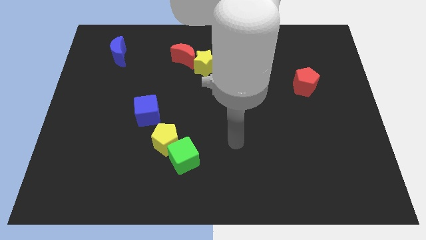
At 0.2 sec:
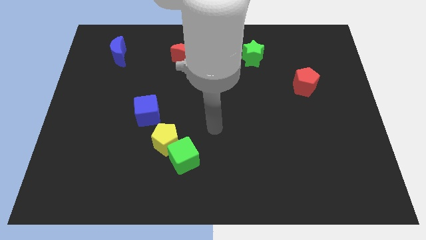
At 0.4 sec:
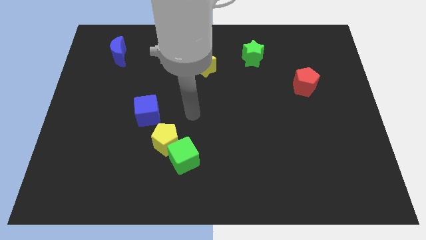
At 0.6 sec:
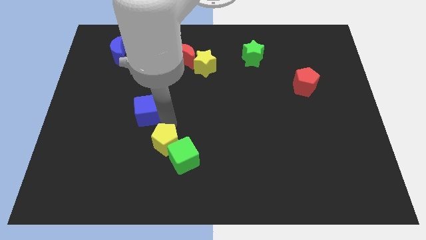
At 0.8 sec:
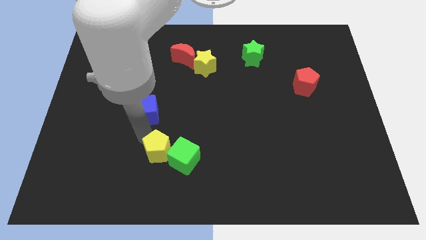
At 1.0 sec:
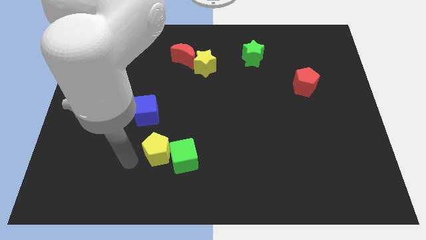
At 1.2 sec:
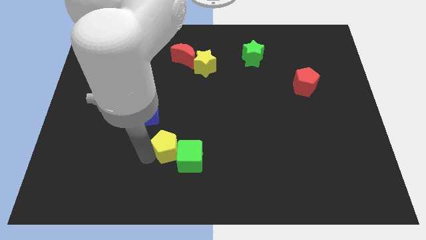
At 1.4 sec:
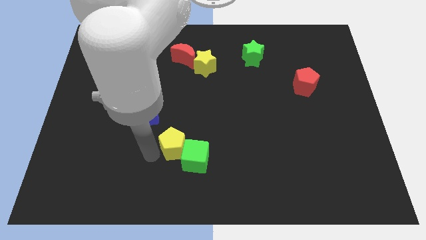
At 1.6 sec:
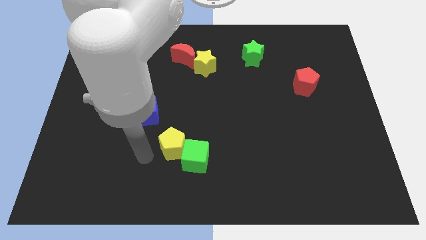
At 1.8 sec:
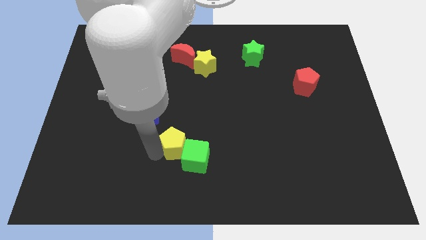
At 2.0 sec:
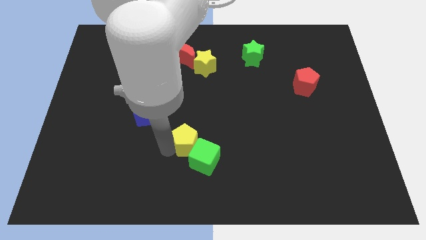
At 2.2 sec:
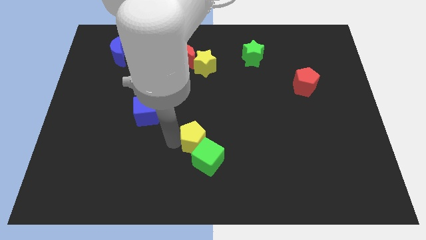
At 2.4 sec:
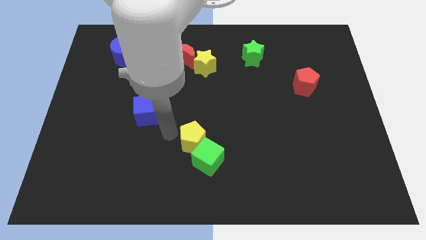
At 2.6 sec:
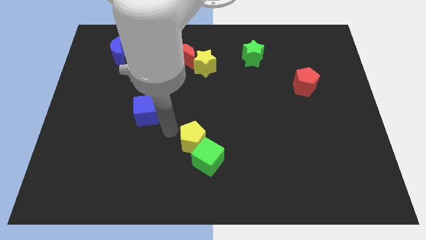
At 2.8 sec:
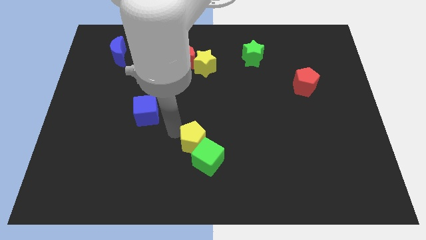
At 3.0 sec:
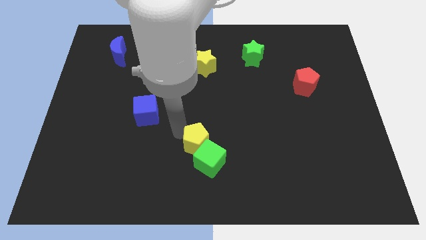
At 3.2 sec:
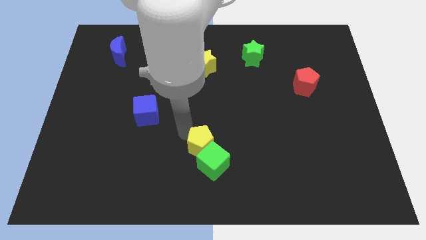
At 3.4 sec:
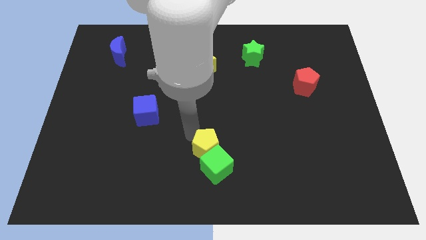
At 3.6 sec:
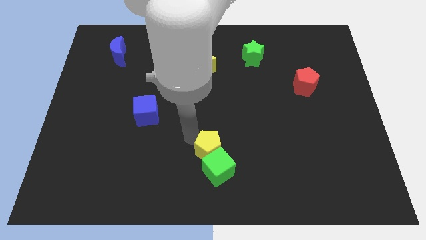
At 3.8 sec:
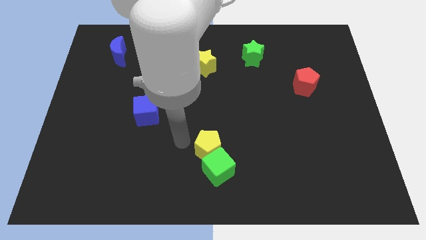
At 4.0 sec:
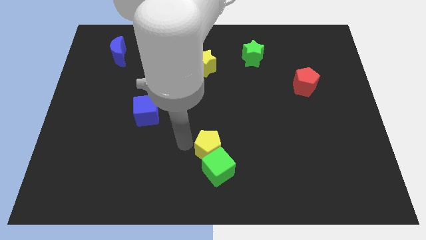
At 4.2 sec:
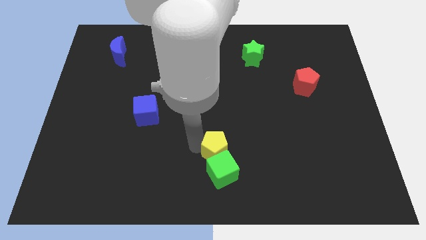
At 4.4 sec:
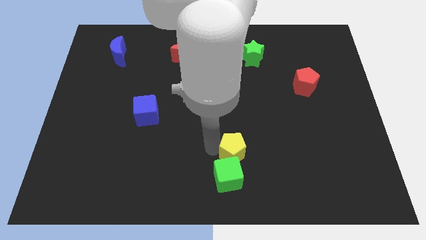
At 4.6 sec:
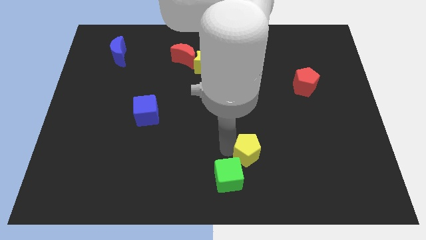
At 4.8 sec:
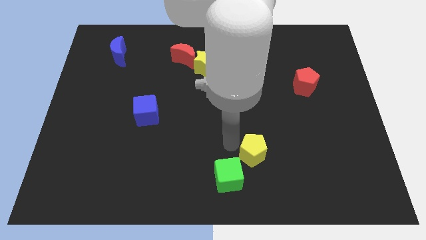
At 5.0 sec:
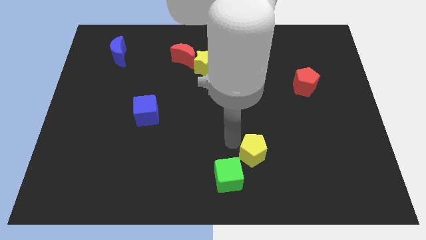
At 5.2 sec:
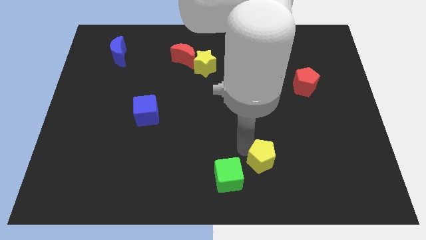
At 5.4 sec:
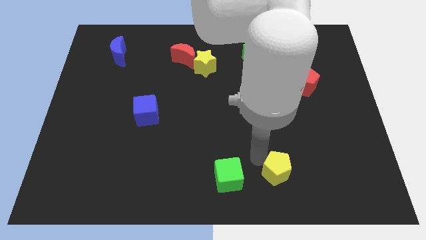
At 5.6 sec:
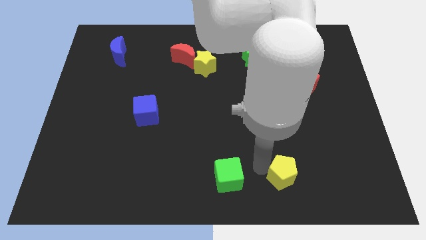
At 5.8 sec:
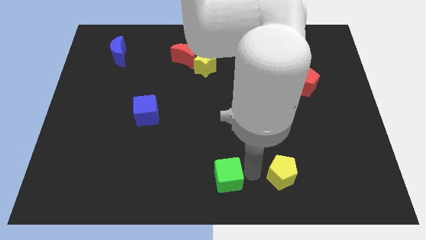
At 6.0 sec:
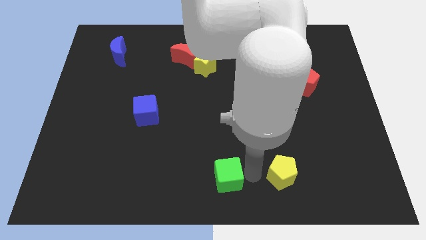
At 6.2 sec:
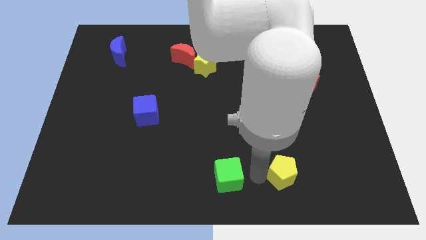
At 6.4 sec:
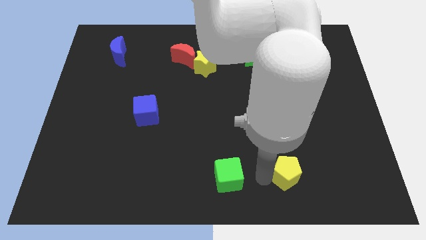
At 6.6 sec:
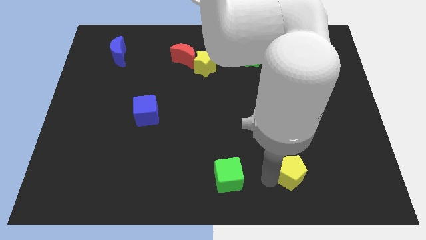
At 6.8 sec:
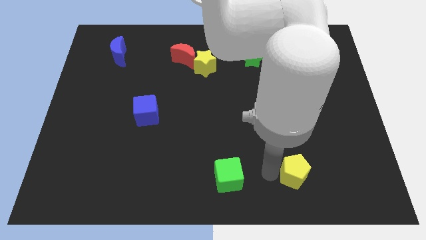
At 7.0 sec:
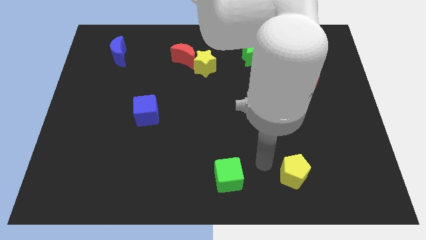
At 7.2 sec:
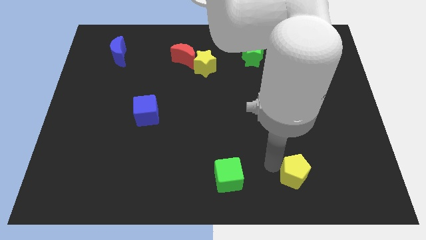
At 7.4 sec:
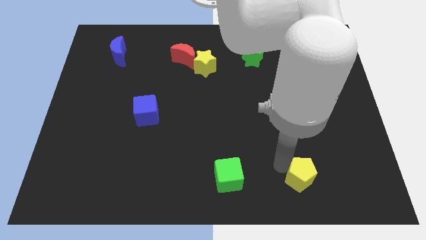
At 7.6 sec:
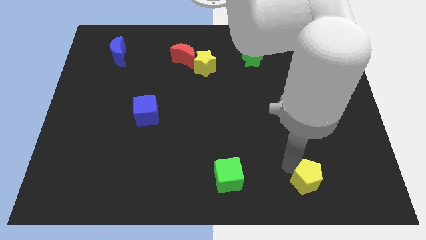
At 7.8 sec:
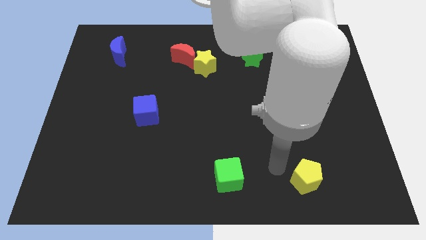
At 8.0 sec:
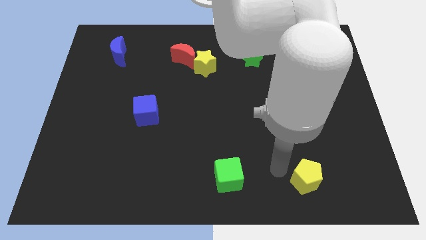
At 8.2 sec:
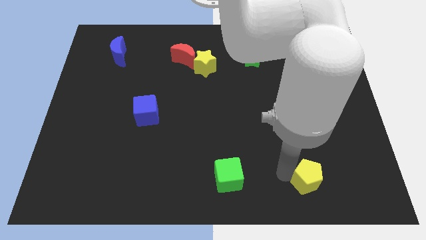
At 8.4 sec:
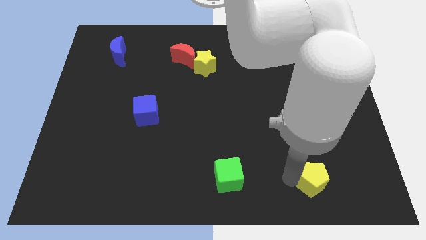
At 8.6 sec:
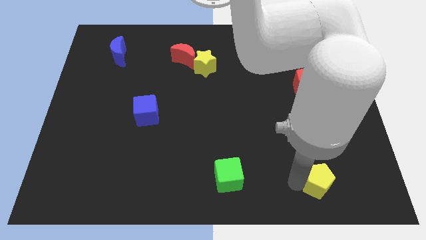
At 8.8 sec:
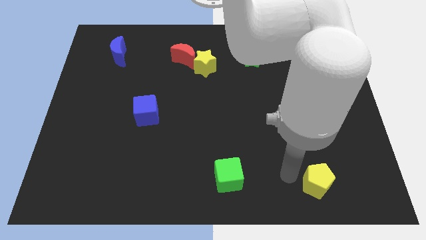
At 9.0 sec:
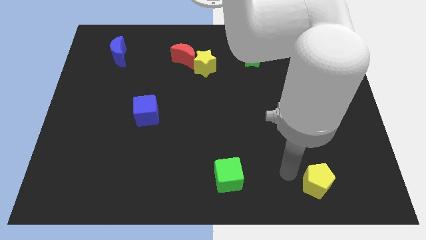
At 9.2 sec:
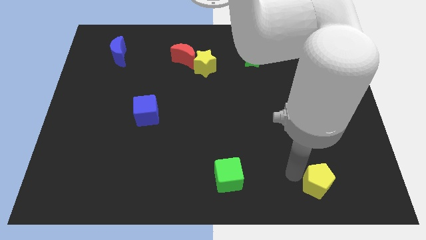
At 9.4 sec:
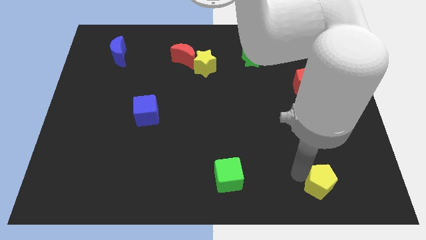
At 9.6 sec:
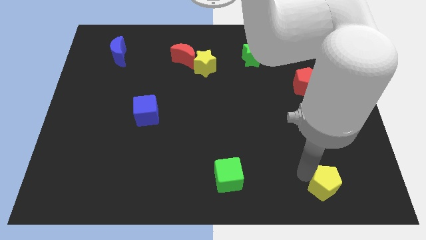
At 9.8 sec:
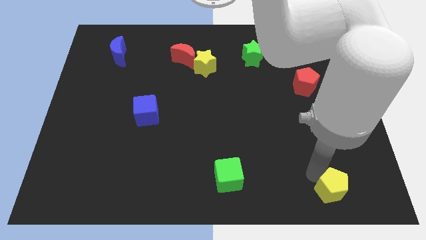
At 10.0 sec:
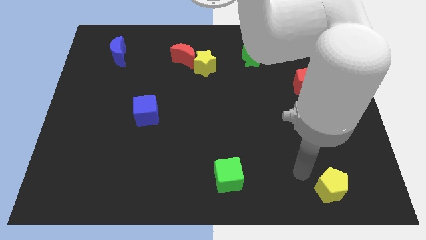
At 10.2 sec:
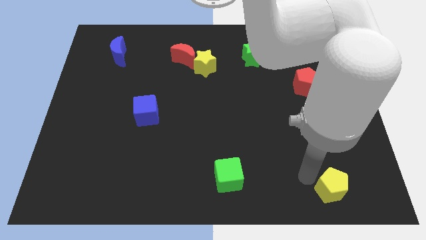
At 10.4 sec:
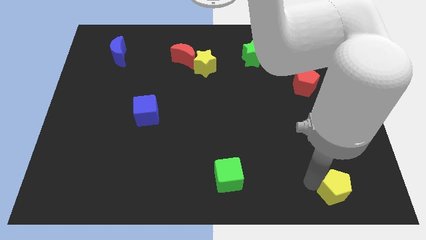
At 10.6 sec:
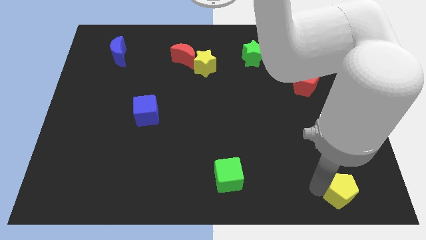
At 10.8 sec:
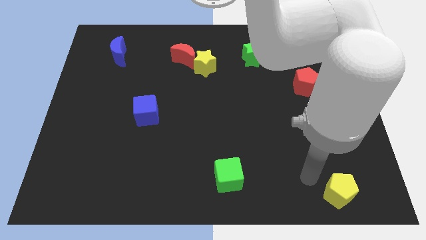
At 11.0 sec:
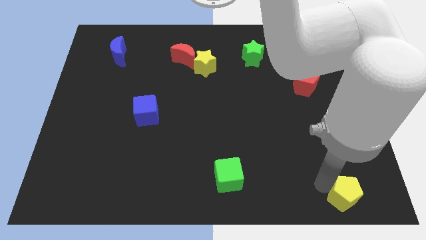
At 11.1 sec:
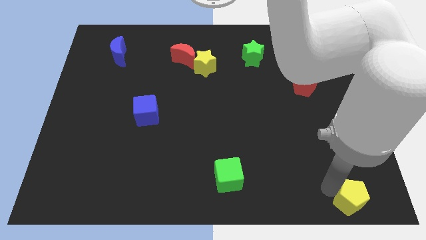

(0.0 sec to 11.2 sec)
put the yellow pentagon to the bottom right of the board
